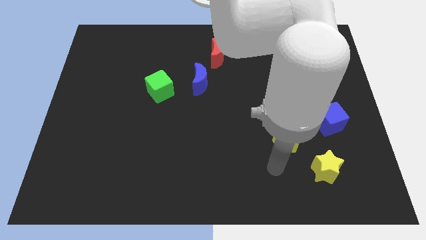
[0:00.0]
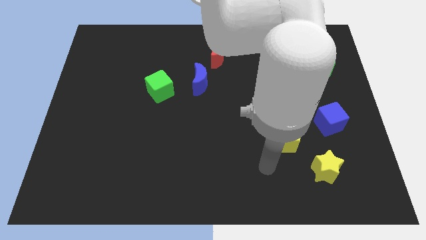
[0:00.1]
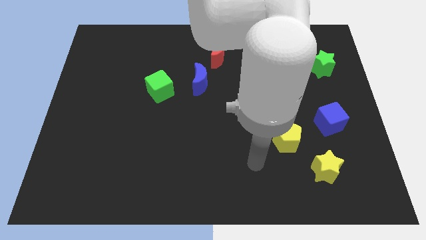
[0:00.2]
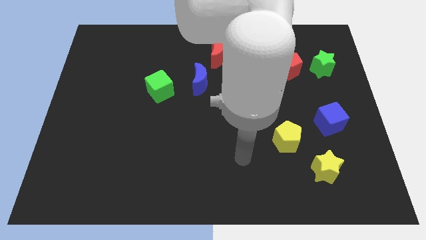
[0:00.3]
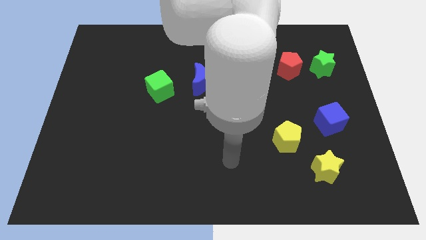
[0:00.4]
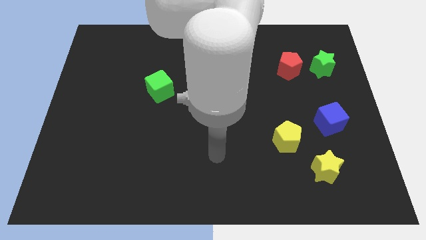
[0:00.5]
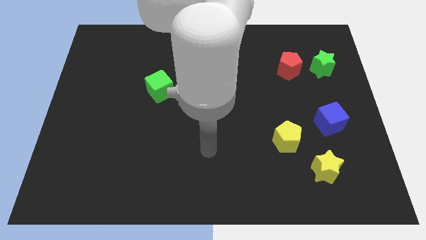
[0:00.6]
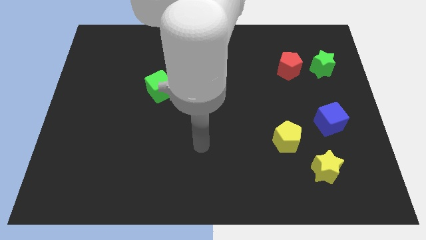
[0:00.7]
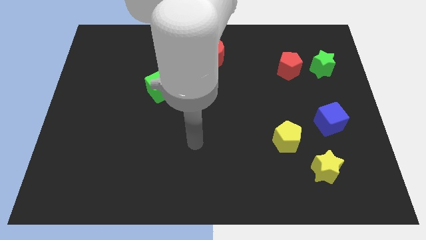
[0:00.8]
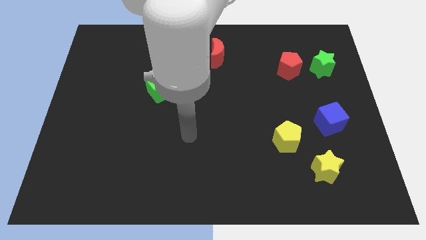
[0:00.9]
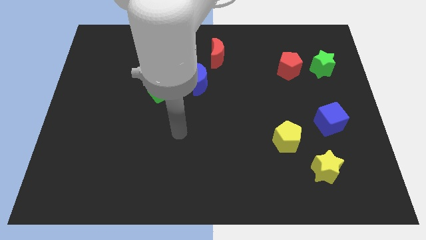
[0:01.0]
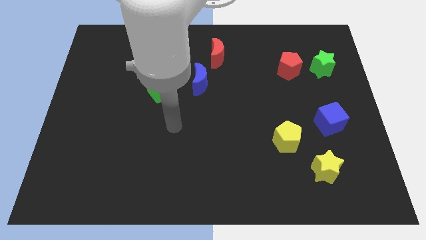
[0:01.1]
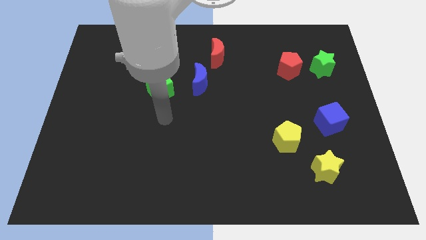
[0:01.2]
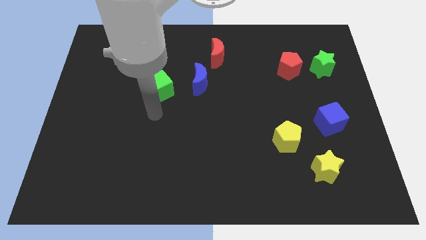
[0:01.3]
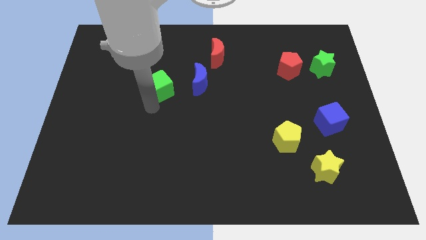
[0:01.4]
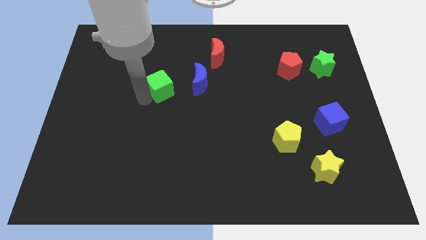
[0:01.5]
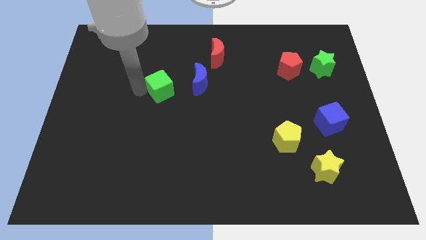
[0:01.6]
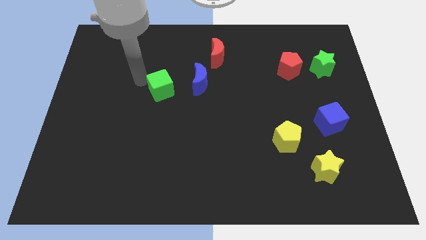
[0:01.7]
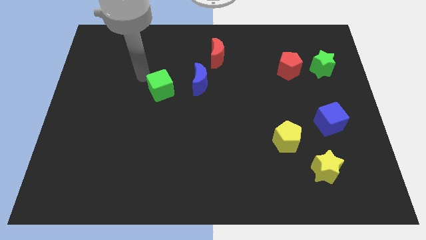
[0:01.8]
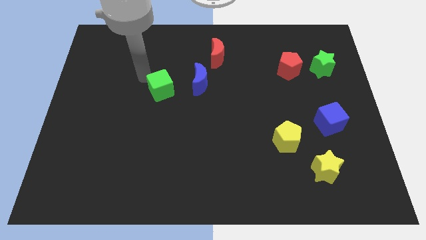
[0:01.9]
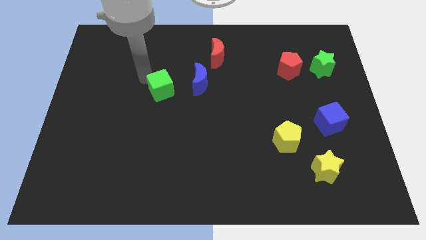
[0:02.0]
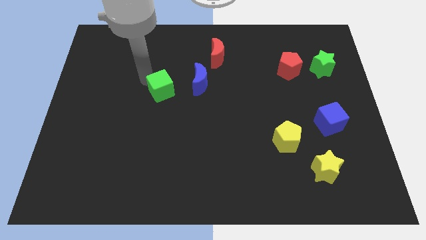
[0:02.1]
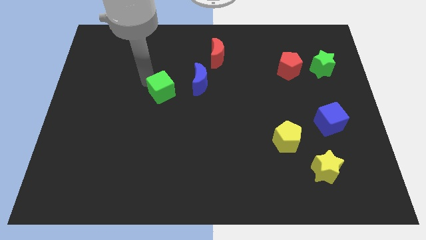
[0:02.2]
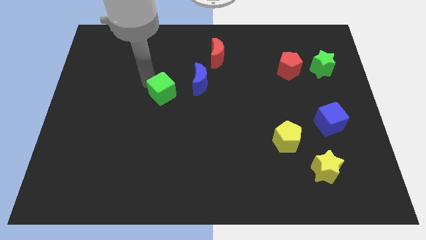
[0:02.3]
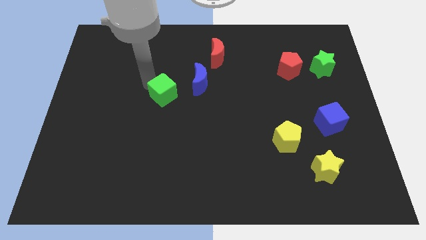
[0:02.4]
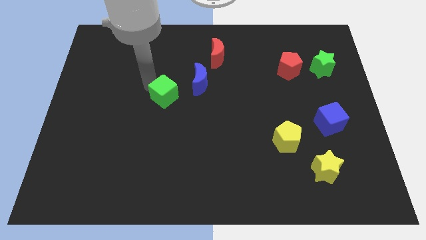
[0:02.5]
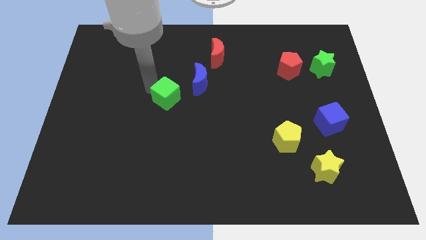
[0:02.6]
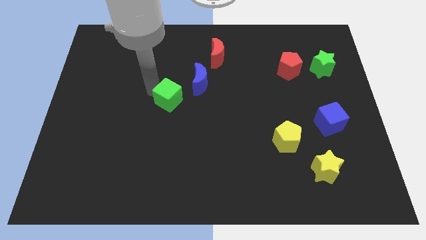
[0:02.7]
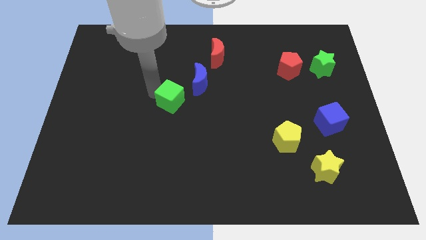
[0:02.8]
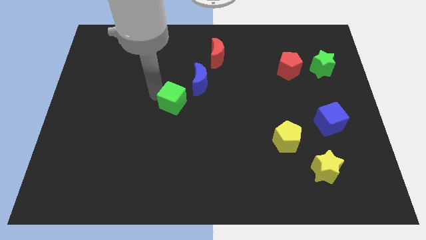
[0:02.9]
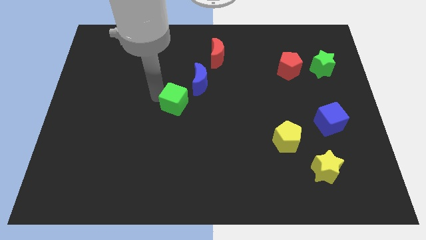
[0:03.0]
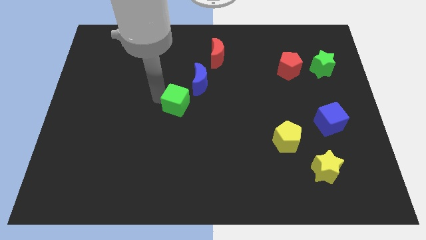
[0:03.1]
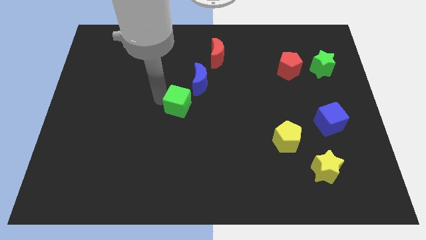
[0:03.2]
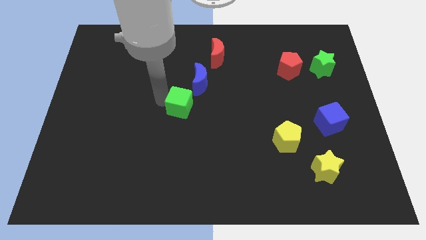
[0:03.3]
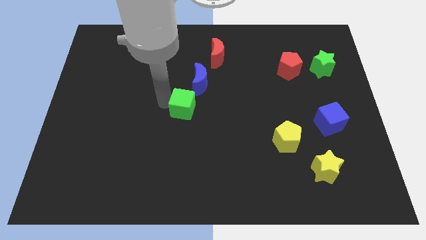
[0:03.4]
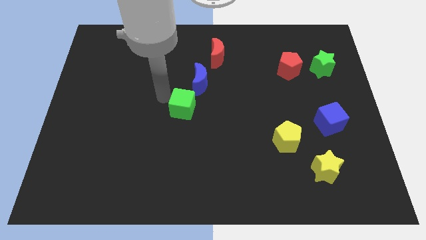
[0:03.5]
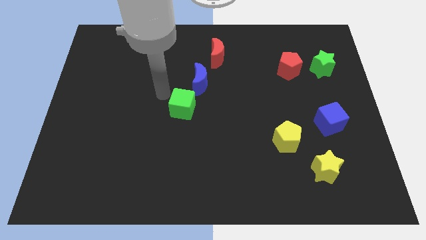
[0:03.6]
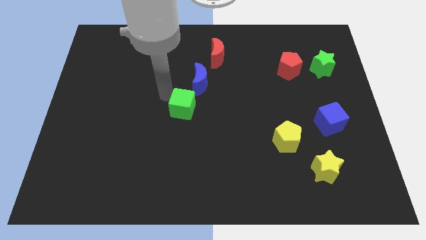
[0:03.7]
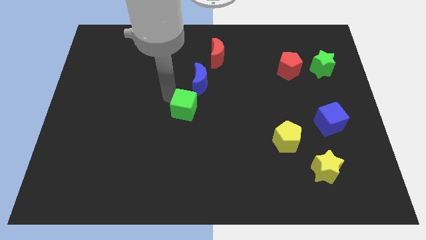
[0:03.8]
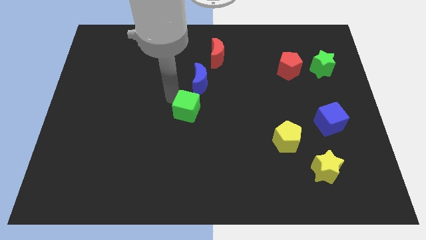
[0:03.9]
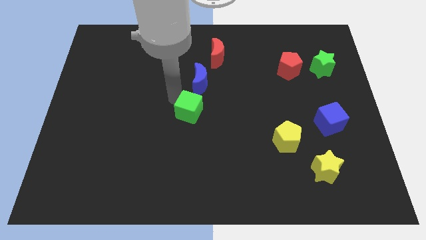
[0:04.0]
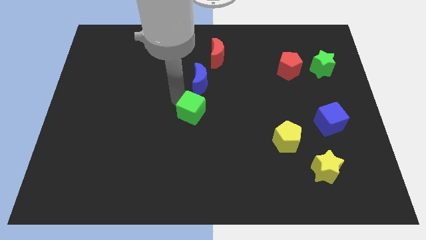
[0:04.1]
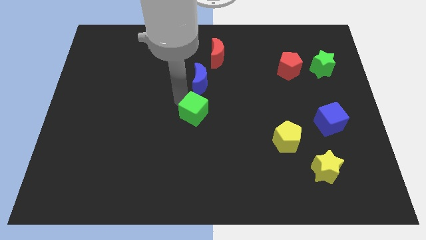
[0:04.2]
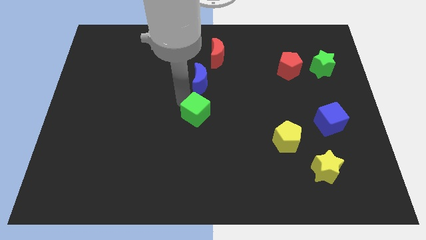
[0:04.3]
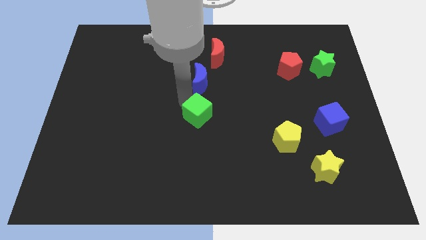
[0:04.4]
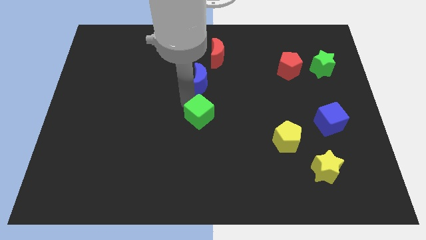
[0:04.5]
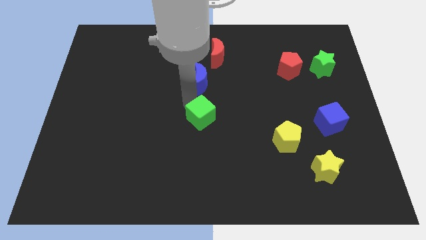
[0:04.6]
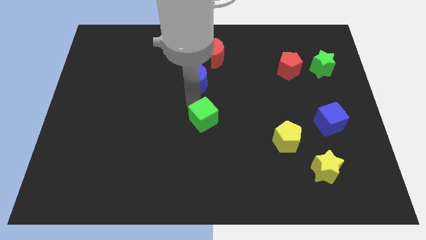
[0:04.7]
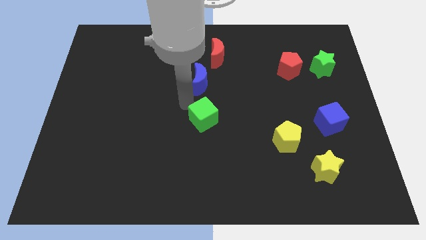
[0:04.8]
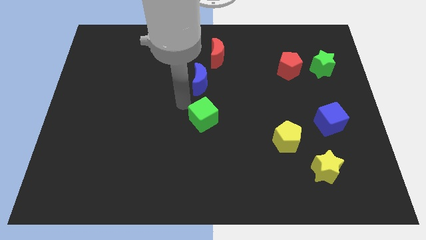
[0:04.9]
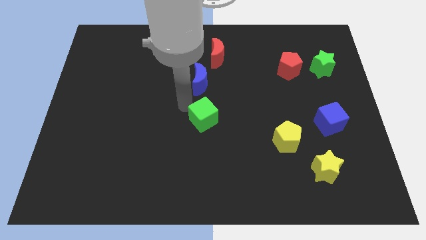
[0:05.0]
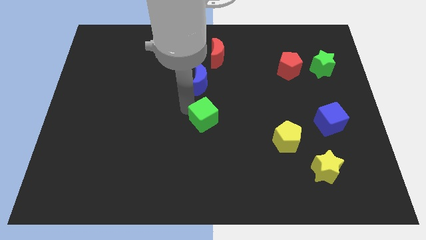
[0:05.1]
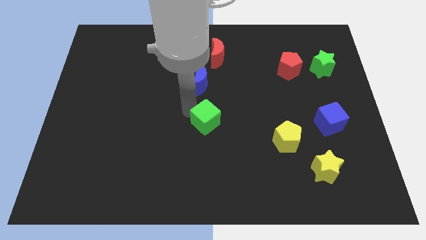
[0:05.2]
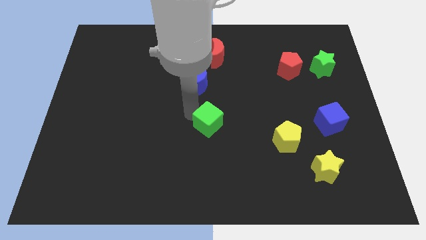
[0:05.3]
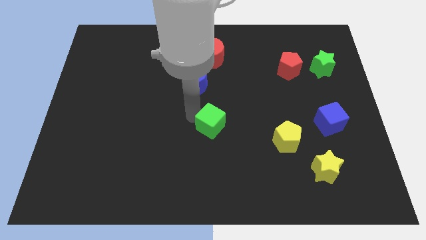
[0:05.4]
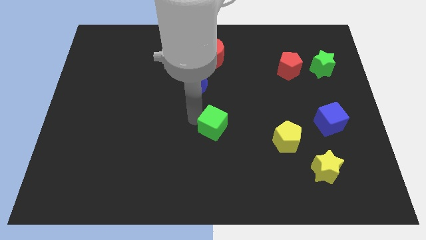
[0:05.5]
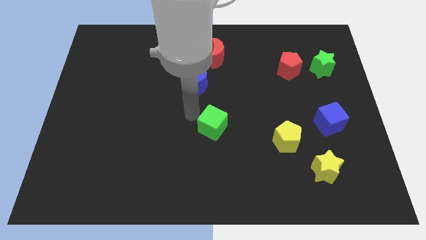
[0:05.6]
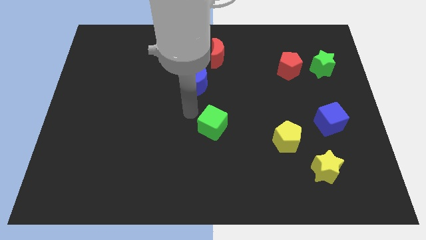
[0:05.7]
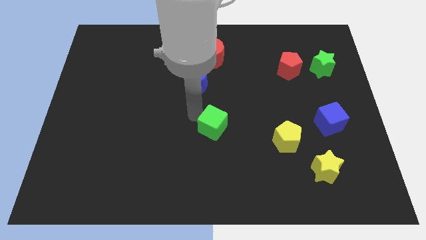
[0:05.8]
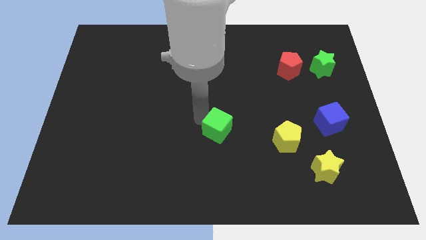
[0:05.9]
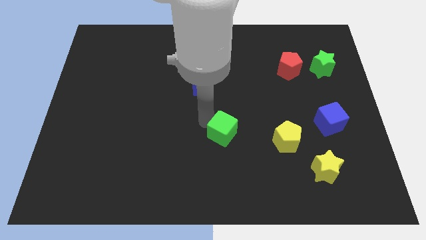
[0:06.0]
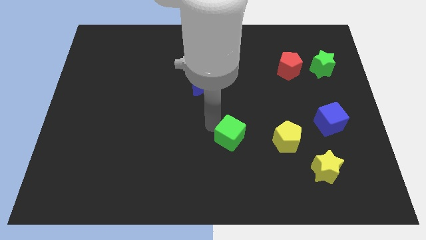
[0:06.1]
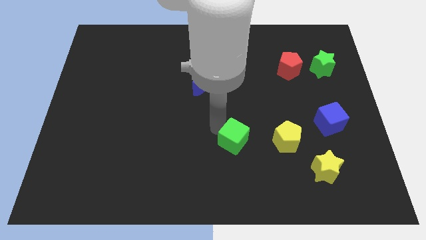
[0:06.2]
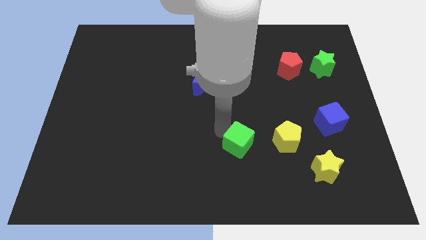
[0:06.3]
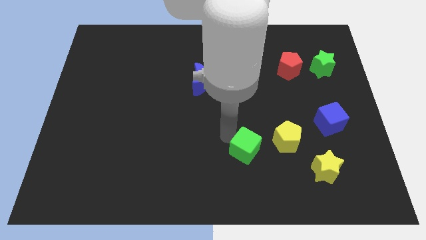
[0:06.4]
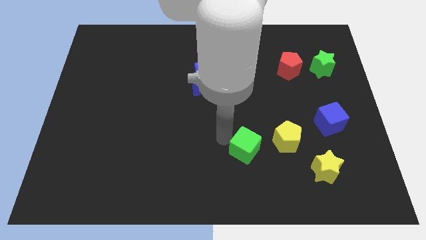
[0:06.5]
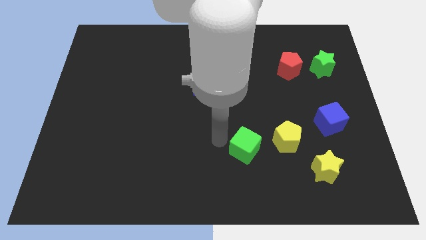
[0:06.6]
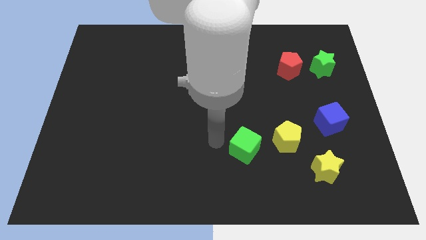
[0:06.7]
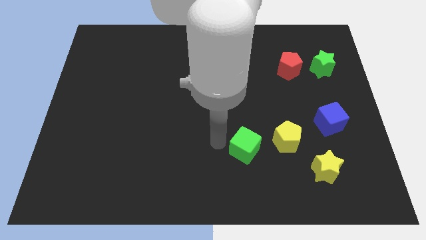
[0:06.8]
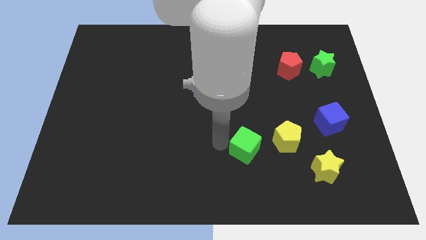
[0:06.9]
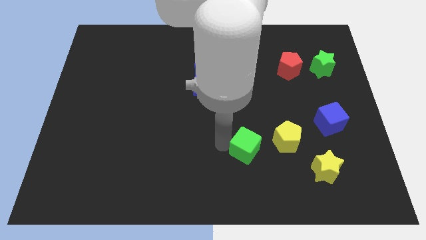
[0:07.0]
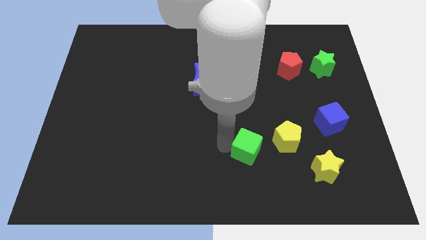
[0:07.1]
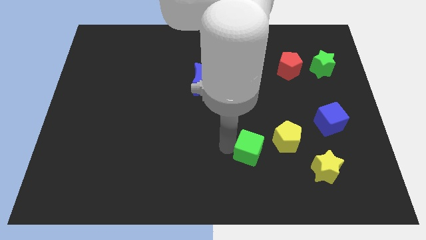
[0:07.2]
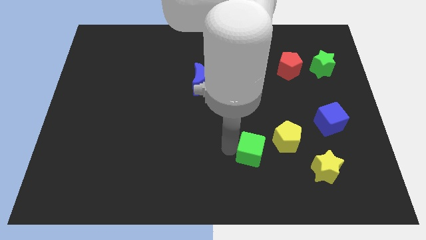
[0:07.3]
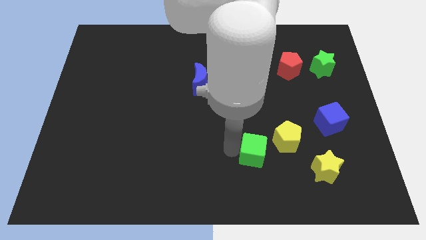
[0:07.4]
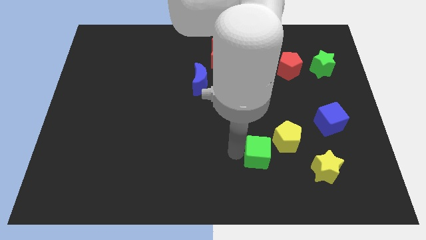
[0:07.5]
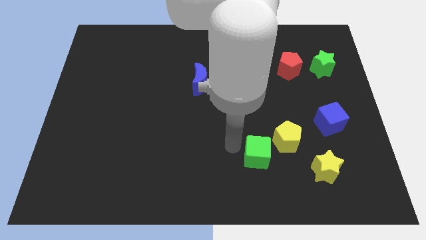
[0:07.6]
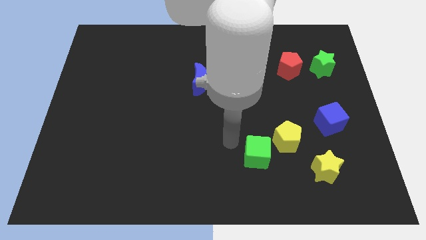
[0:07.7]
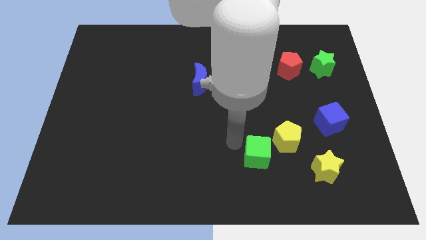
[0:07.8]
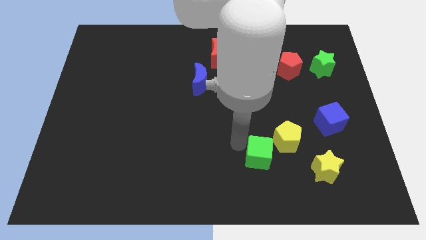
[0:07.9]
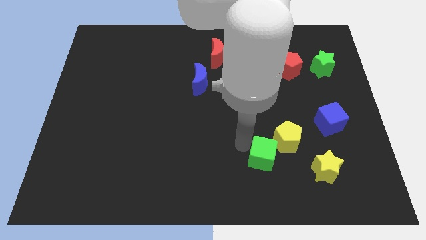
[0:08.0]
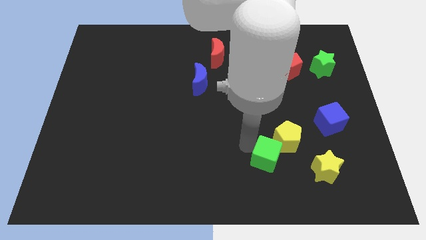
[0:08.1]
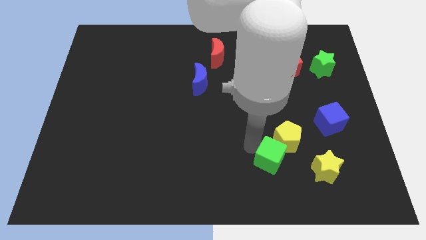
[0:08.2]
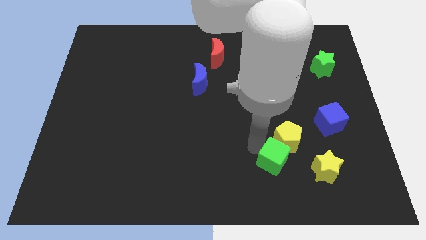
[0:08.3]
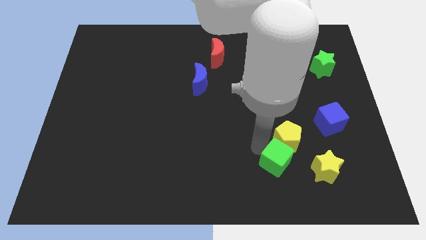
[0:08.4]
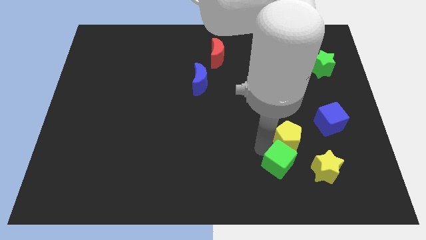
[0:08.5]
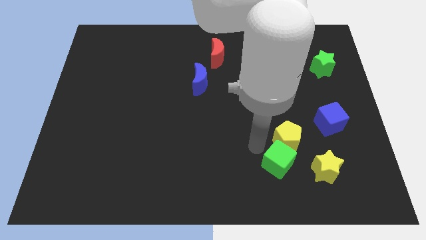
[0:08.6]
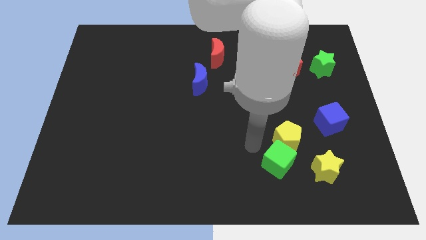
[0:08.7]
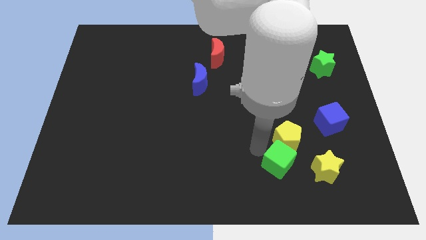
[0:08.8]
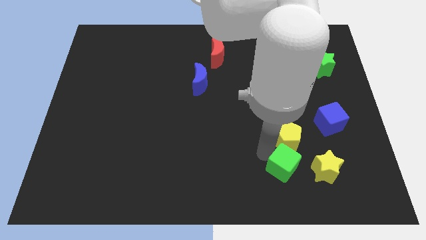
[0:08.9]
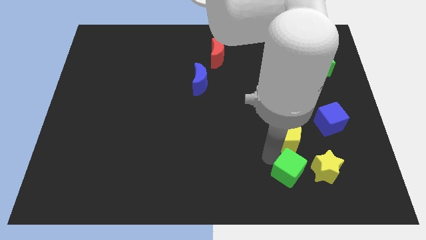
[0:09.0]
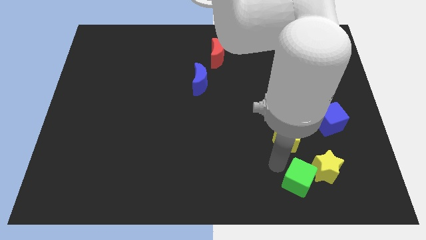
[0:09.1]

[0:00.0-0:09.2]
slide the green cube next to the yellow star
